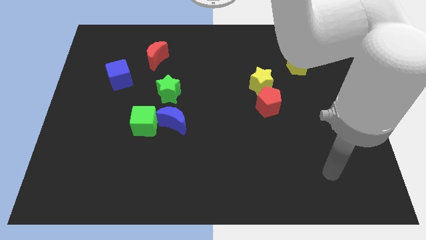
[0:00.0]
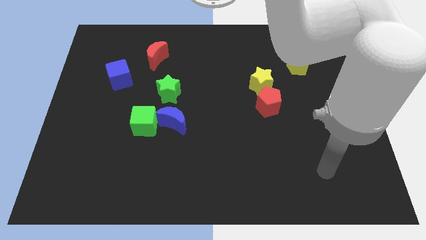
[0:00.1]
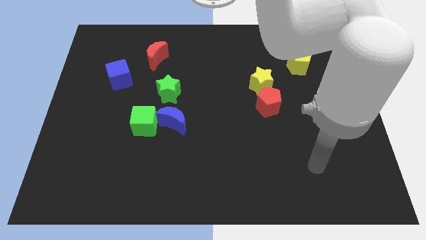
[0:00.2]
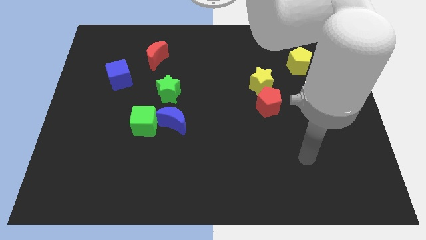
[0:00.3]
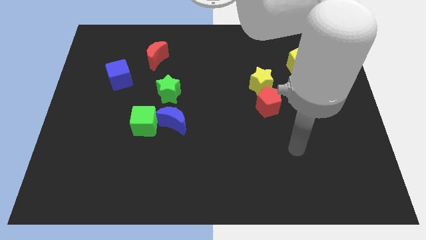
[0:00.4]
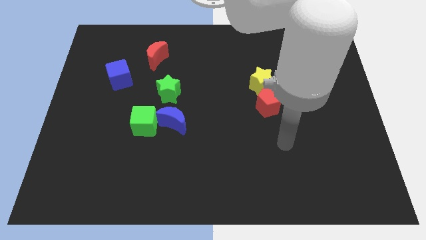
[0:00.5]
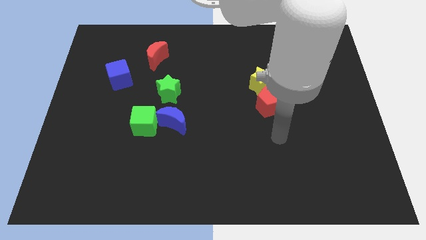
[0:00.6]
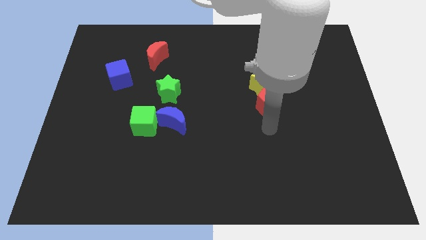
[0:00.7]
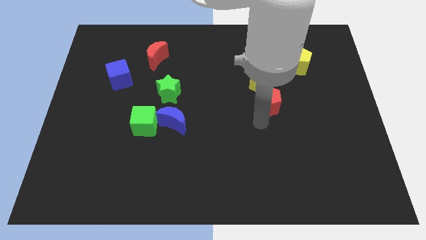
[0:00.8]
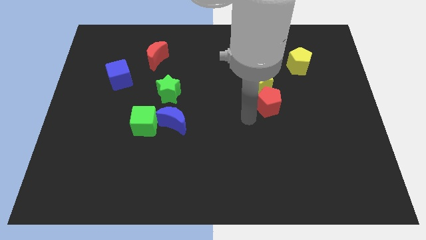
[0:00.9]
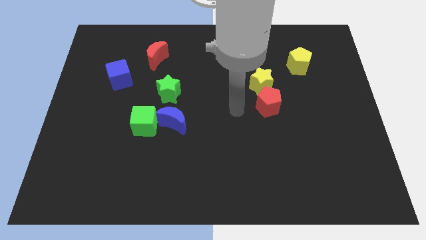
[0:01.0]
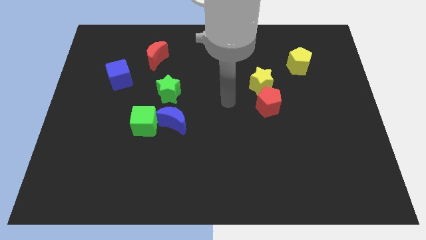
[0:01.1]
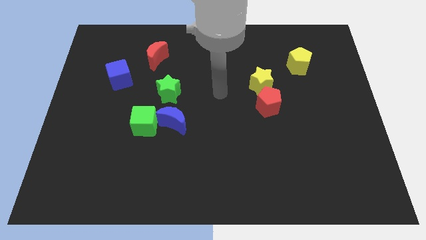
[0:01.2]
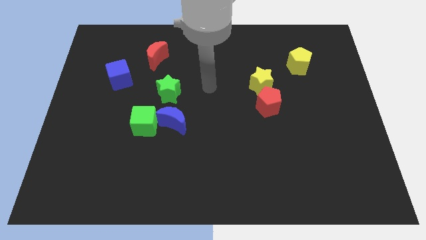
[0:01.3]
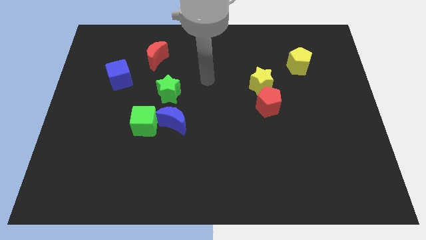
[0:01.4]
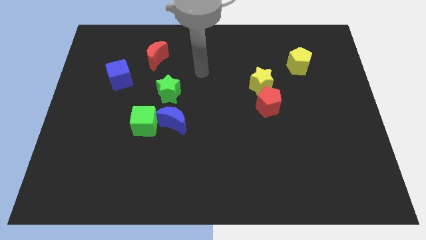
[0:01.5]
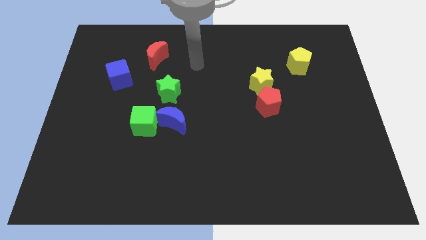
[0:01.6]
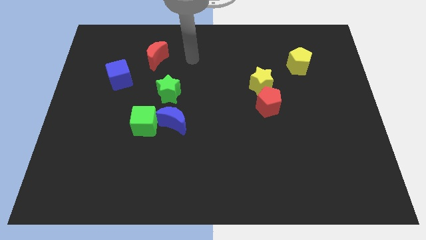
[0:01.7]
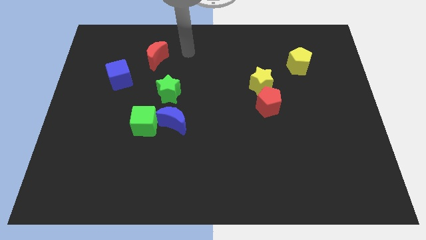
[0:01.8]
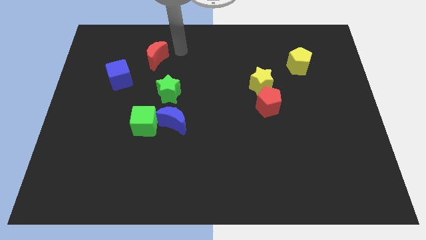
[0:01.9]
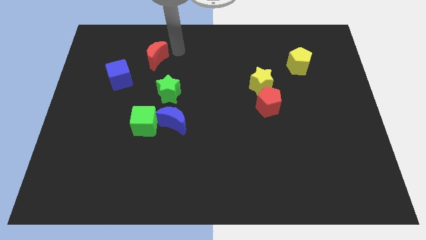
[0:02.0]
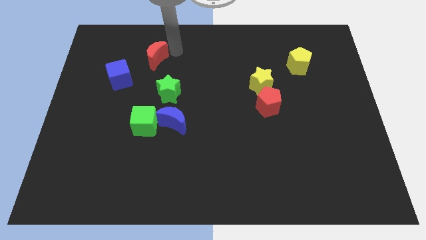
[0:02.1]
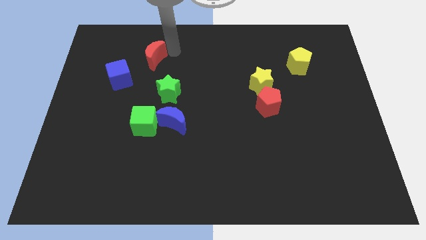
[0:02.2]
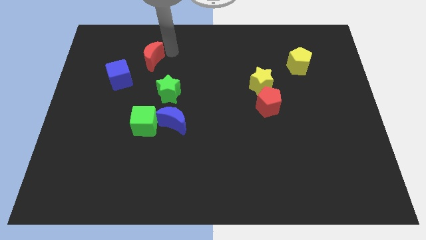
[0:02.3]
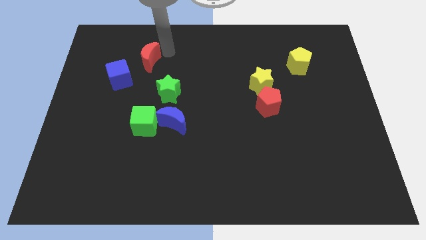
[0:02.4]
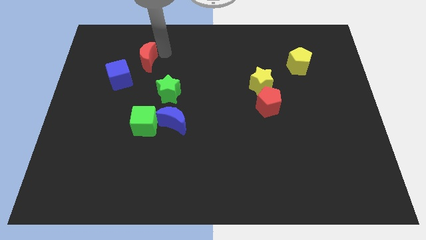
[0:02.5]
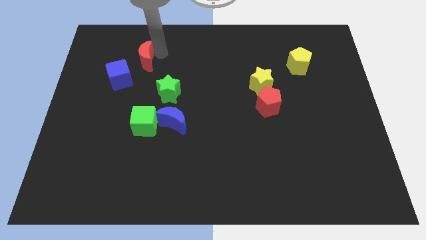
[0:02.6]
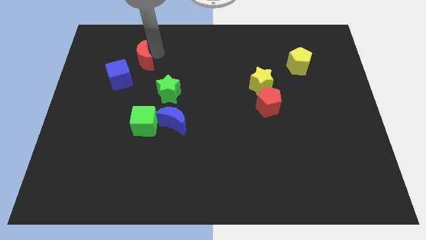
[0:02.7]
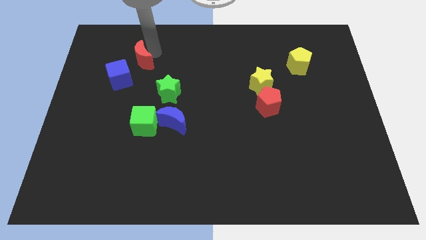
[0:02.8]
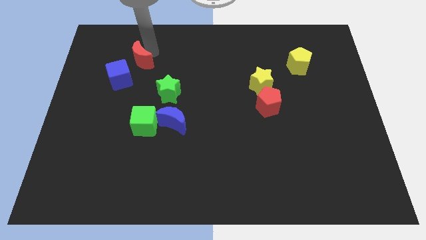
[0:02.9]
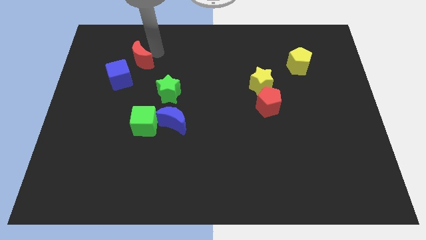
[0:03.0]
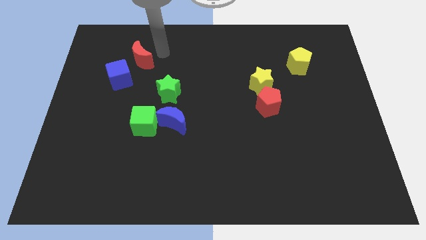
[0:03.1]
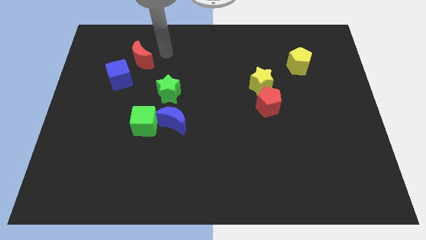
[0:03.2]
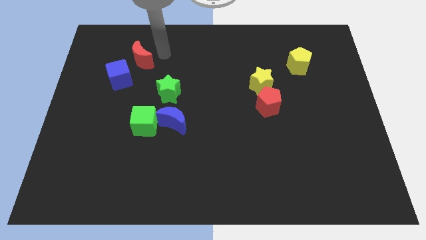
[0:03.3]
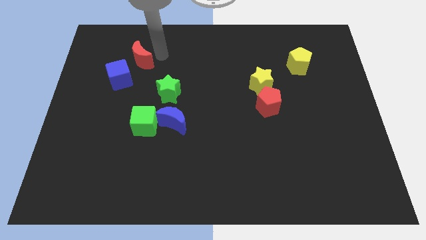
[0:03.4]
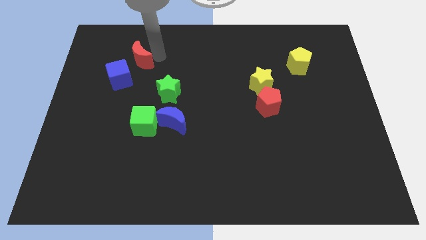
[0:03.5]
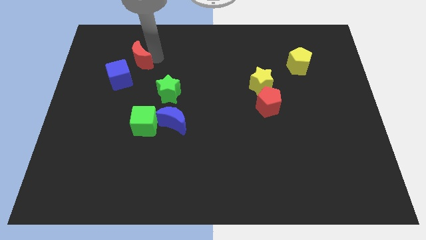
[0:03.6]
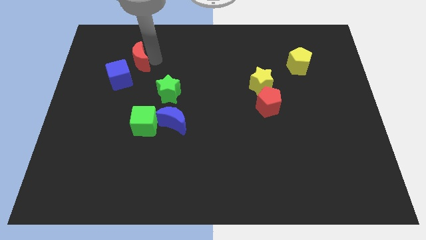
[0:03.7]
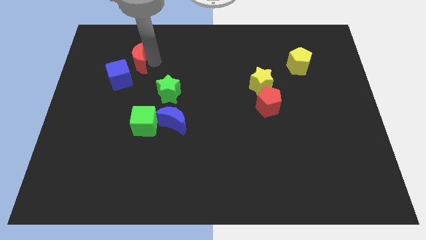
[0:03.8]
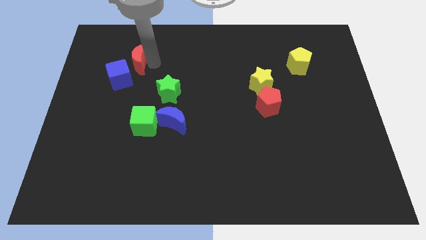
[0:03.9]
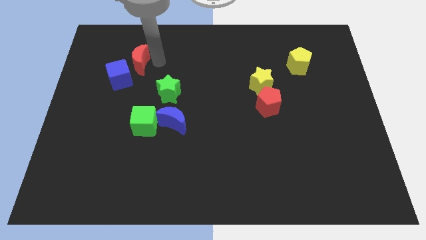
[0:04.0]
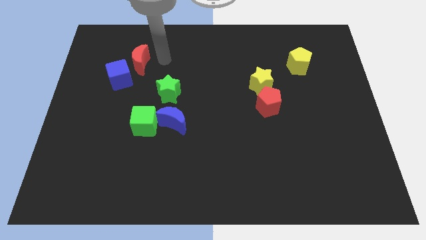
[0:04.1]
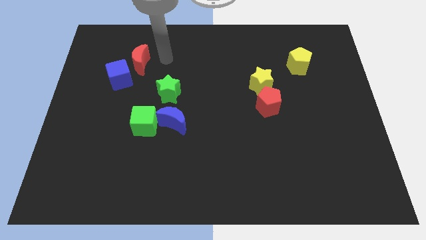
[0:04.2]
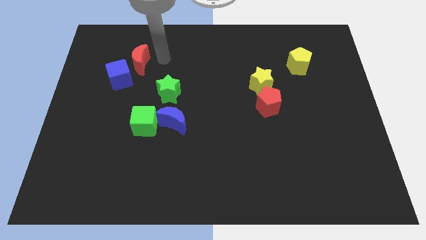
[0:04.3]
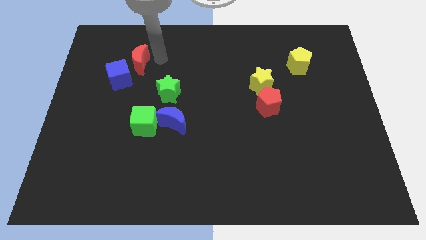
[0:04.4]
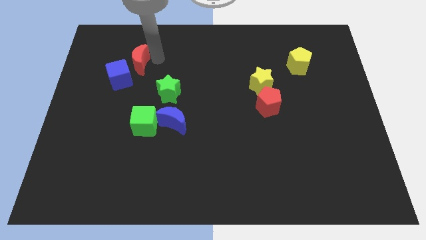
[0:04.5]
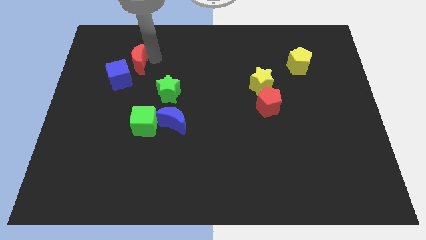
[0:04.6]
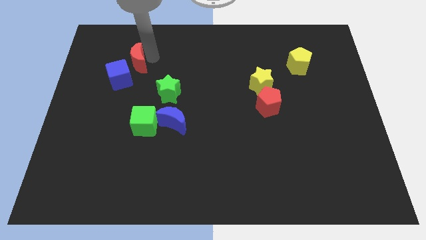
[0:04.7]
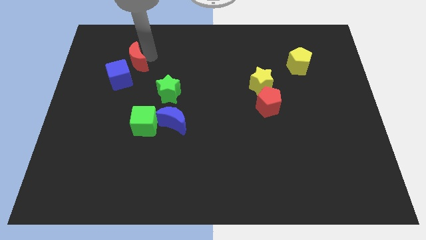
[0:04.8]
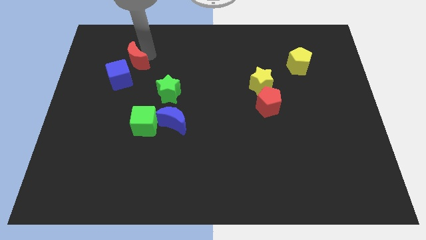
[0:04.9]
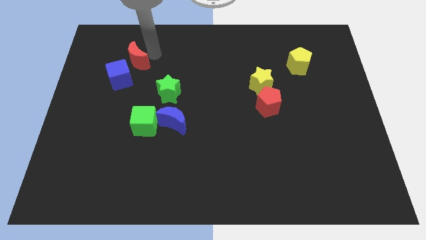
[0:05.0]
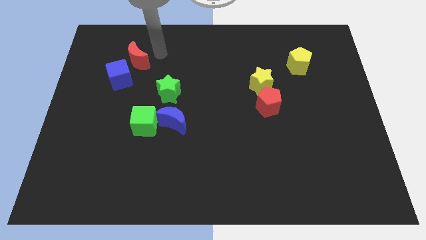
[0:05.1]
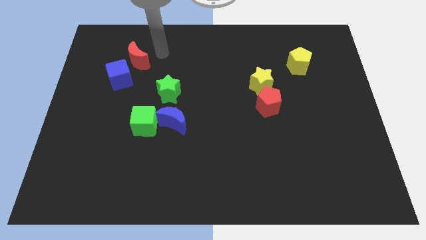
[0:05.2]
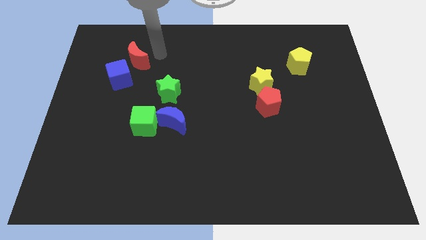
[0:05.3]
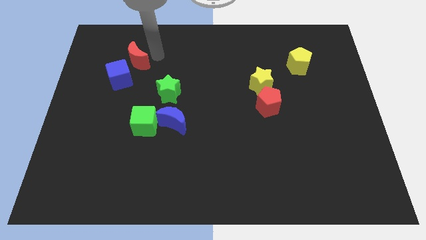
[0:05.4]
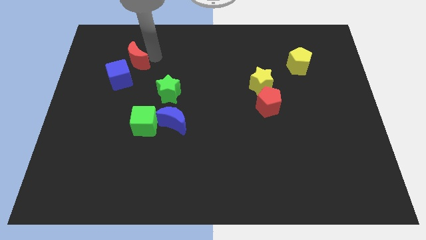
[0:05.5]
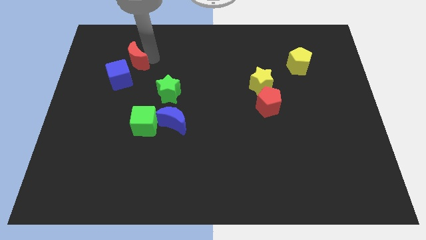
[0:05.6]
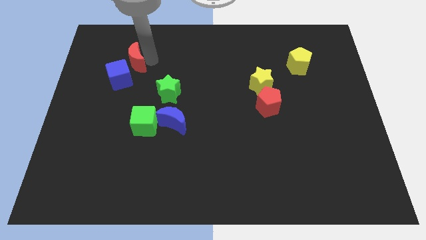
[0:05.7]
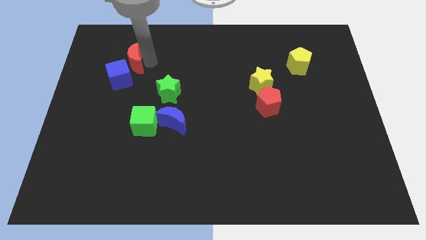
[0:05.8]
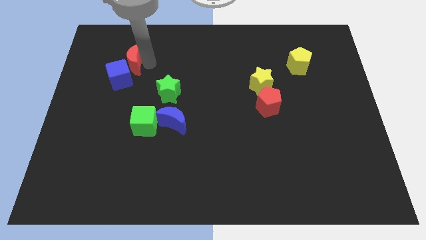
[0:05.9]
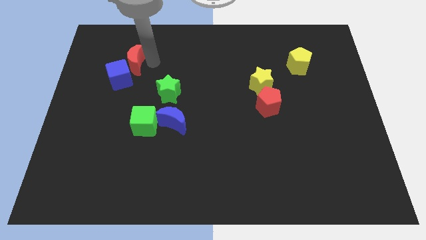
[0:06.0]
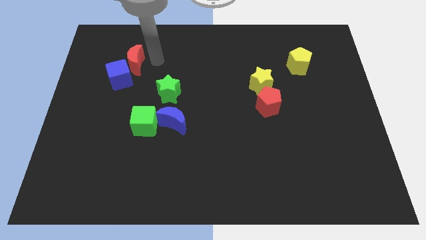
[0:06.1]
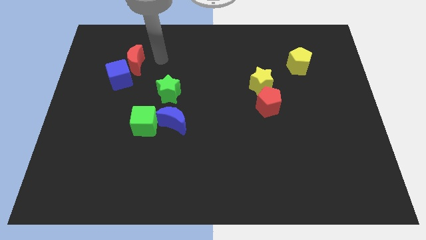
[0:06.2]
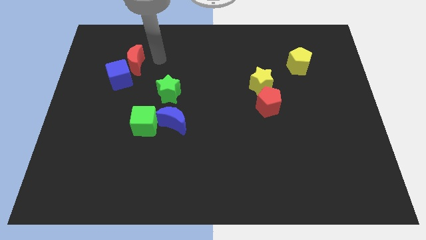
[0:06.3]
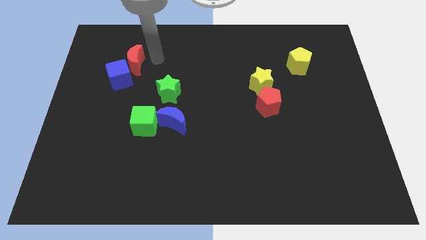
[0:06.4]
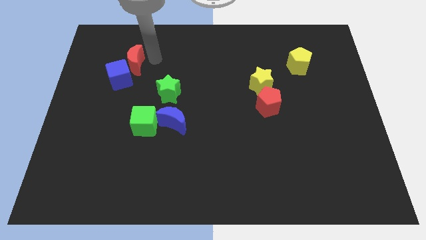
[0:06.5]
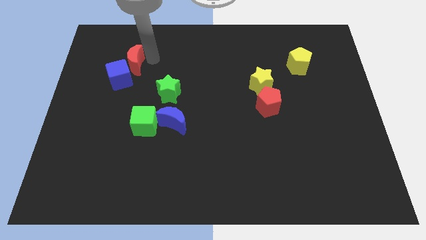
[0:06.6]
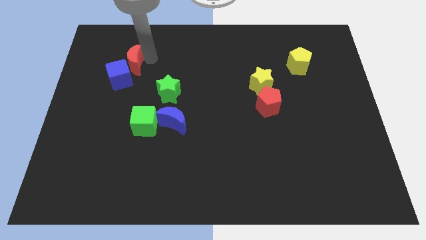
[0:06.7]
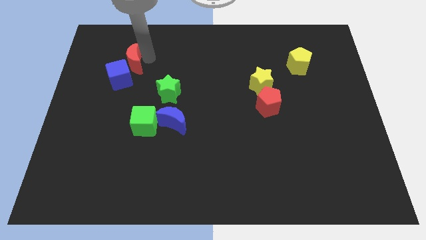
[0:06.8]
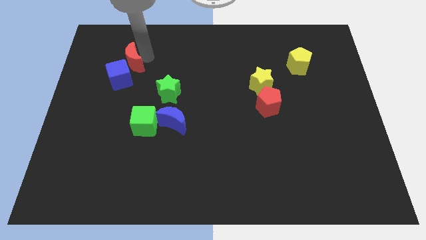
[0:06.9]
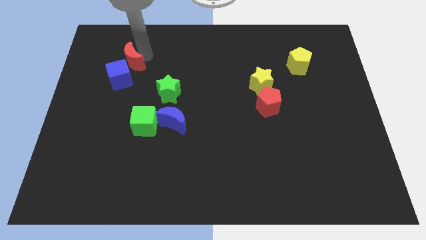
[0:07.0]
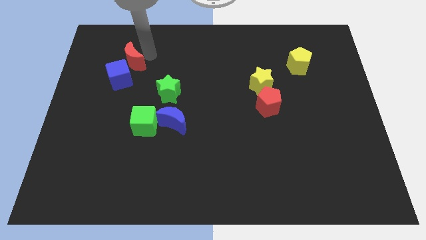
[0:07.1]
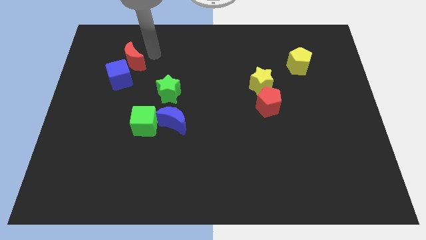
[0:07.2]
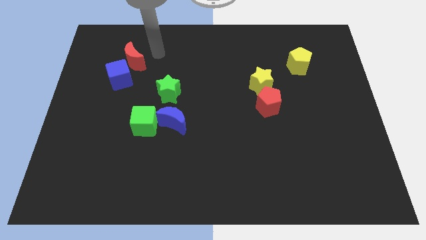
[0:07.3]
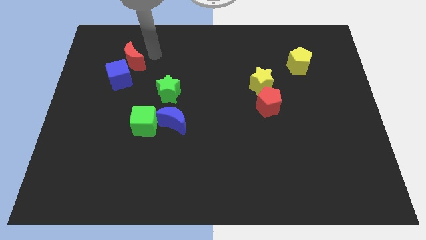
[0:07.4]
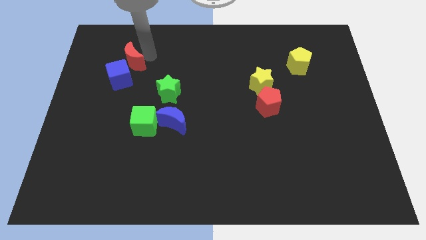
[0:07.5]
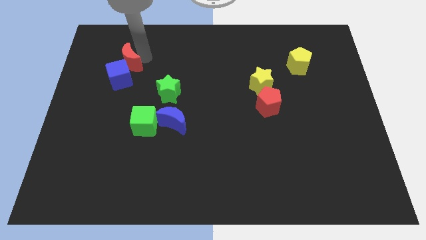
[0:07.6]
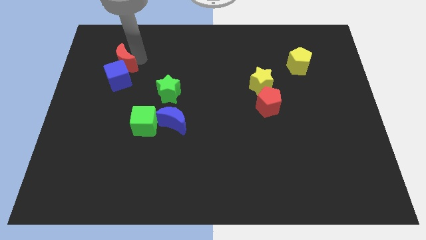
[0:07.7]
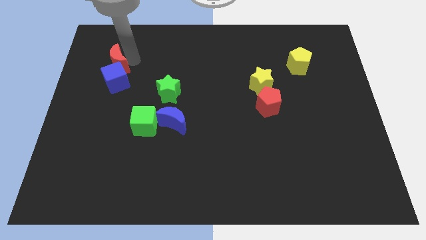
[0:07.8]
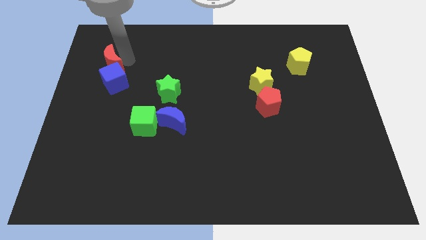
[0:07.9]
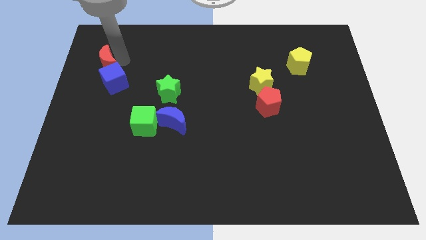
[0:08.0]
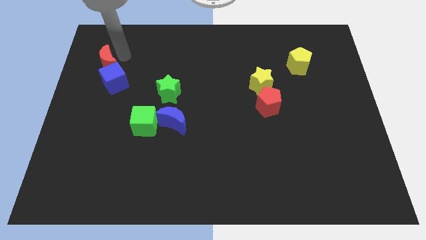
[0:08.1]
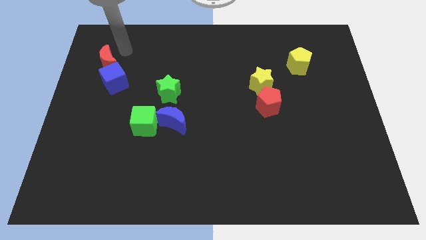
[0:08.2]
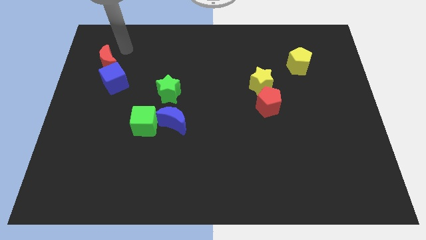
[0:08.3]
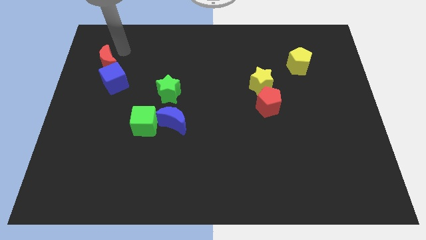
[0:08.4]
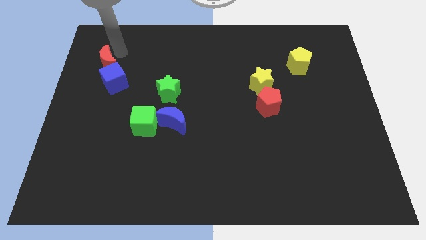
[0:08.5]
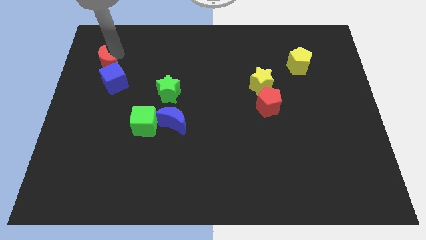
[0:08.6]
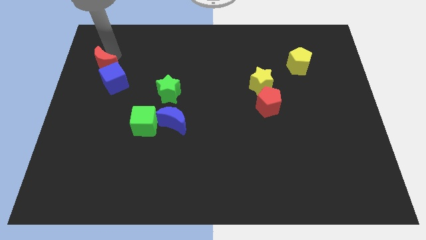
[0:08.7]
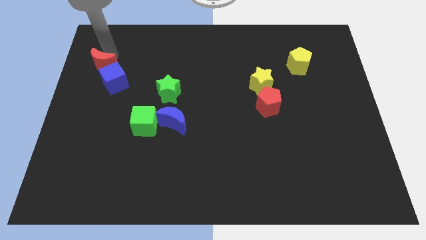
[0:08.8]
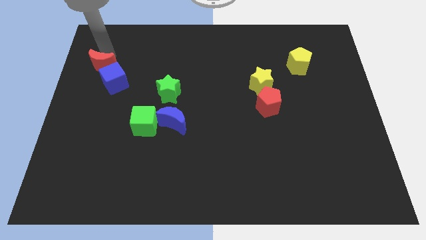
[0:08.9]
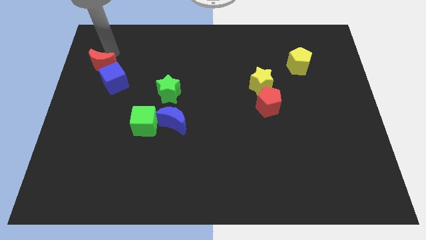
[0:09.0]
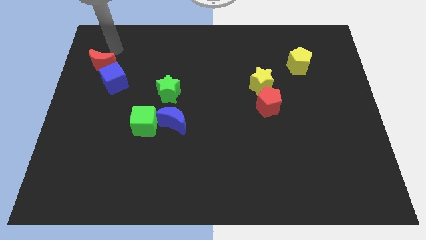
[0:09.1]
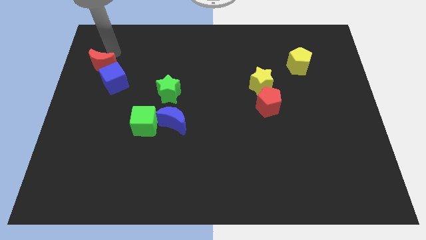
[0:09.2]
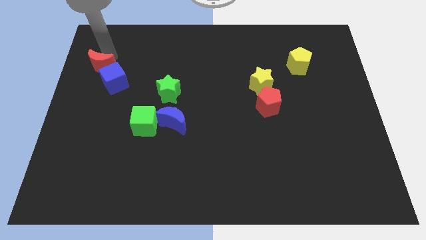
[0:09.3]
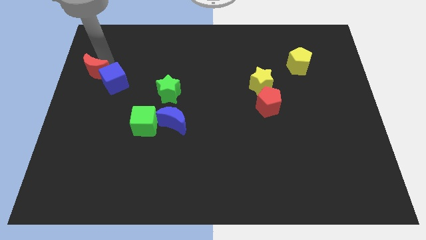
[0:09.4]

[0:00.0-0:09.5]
slide the red moon to the left side
